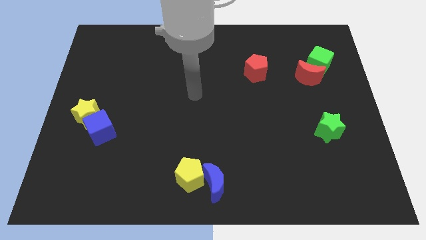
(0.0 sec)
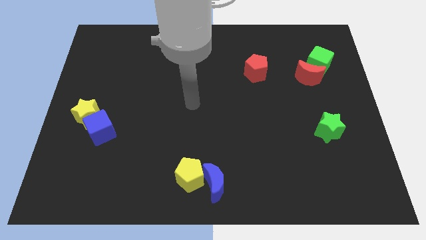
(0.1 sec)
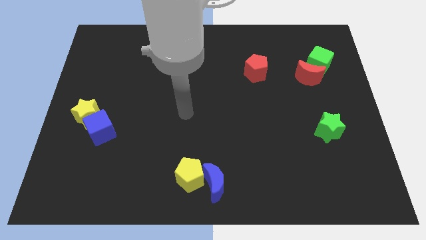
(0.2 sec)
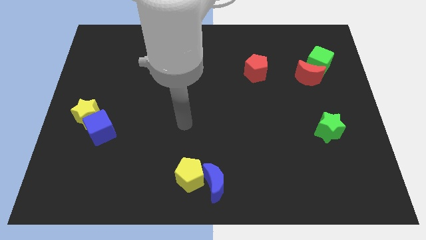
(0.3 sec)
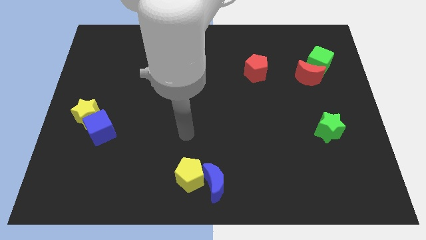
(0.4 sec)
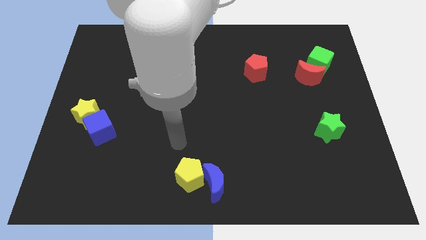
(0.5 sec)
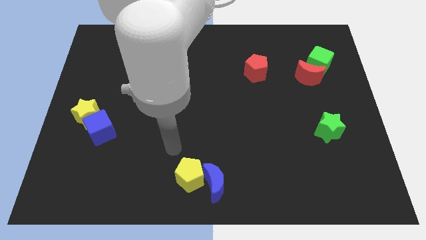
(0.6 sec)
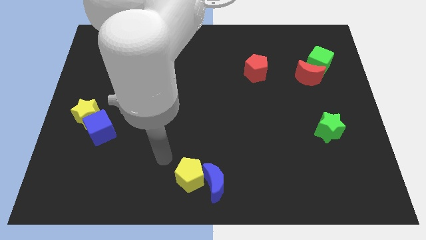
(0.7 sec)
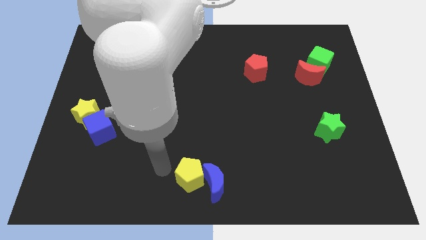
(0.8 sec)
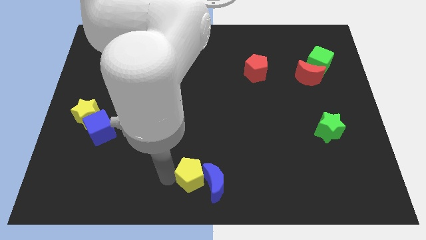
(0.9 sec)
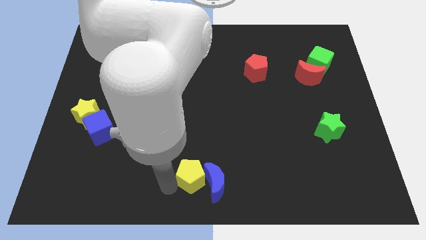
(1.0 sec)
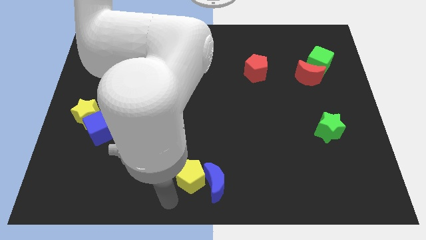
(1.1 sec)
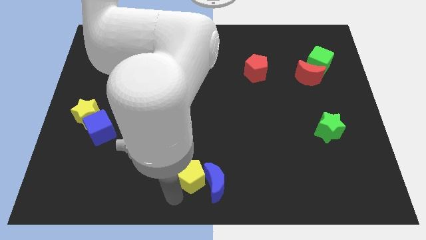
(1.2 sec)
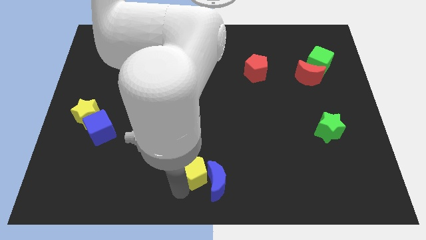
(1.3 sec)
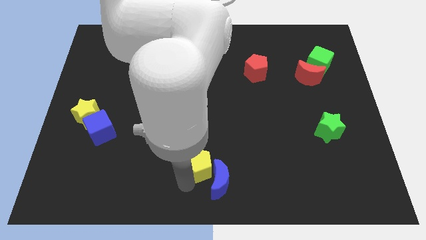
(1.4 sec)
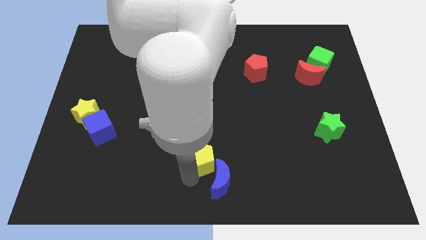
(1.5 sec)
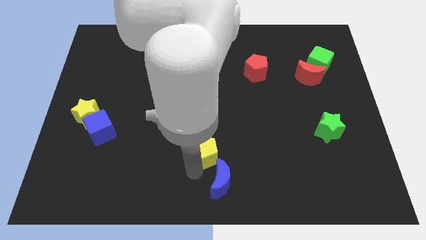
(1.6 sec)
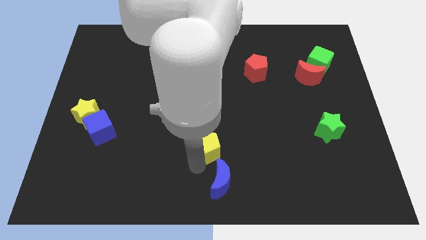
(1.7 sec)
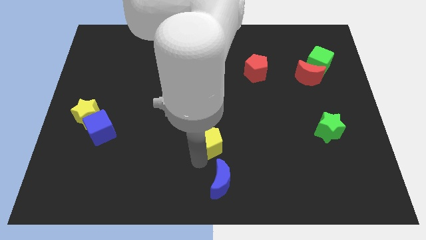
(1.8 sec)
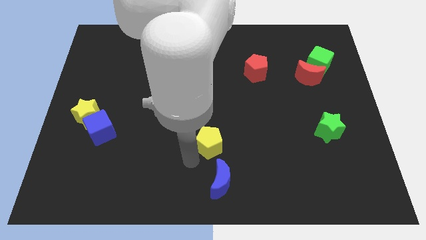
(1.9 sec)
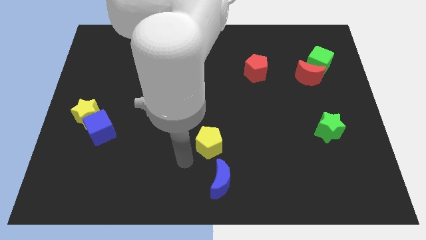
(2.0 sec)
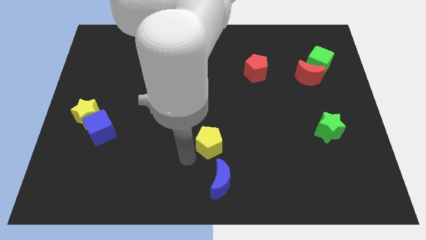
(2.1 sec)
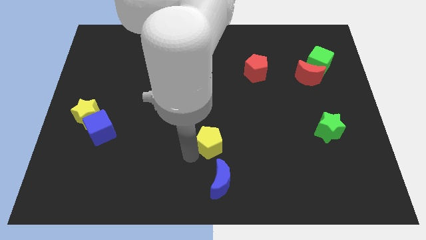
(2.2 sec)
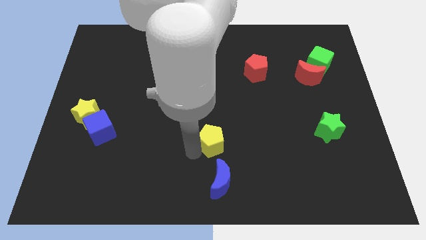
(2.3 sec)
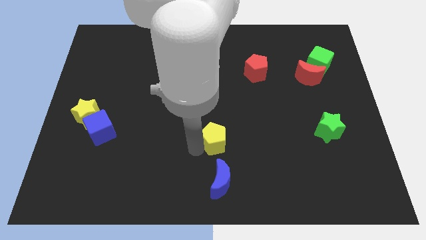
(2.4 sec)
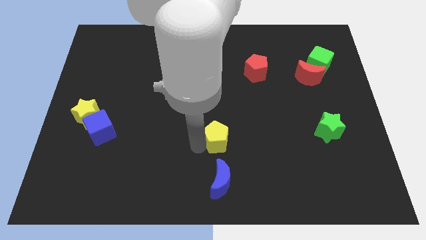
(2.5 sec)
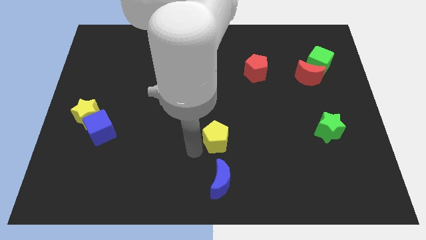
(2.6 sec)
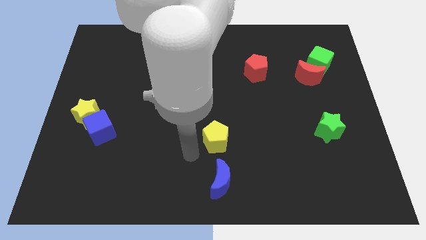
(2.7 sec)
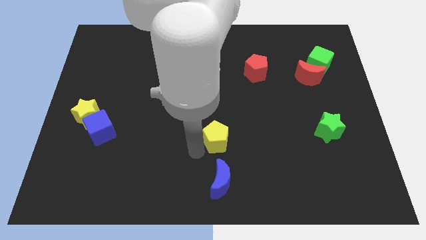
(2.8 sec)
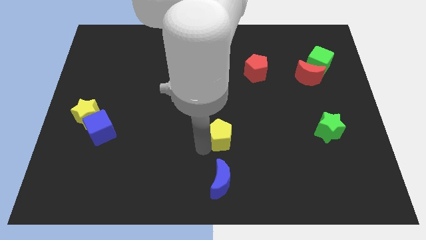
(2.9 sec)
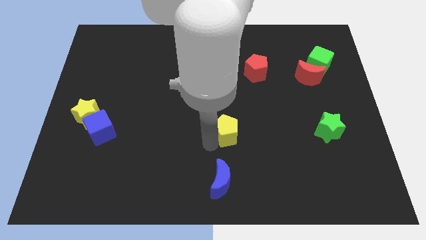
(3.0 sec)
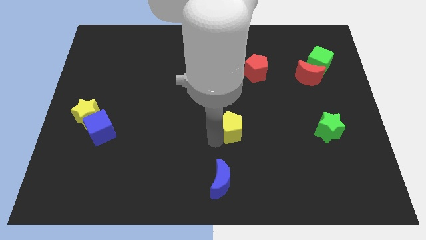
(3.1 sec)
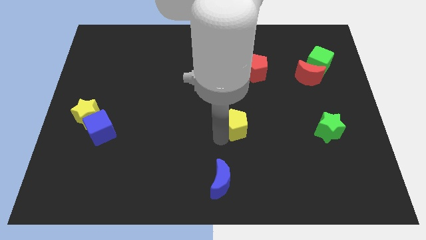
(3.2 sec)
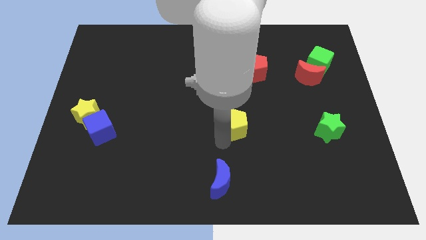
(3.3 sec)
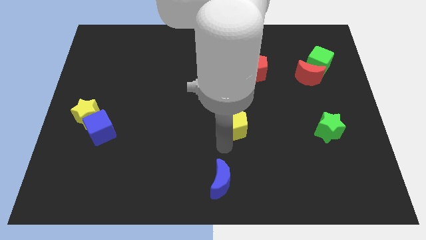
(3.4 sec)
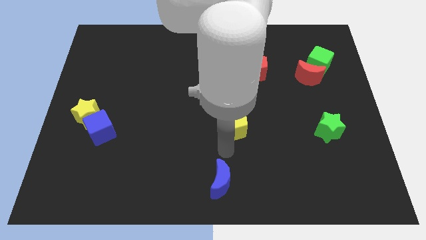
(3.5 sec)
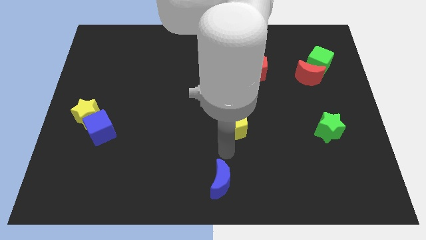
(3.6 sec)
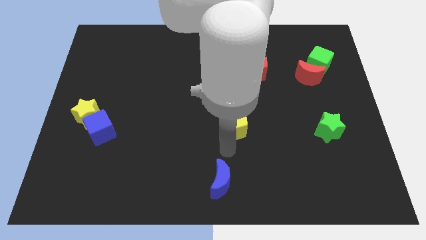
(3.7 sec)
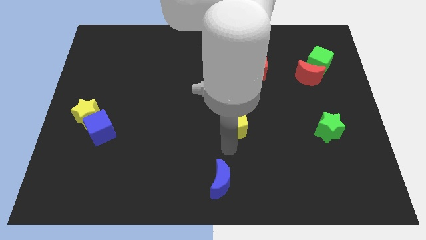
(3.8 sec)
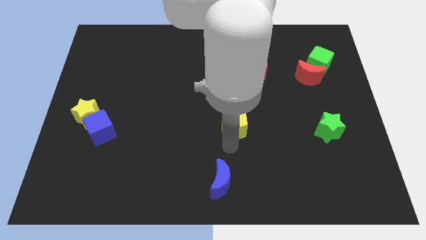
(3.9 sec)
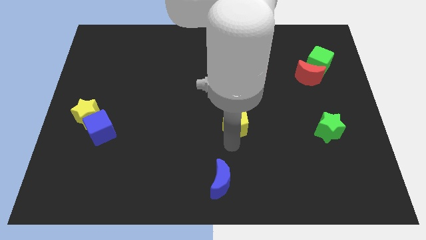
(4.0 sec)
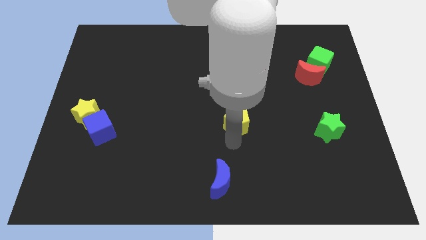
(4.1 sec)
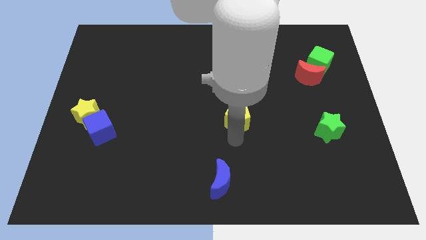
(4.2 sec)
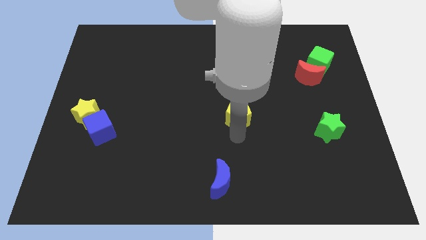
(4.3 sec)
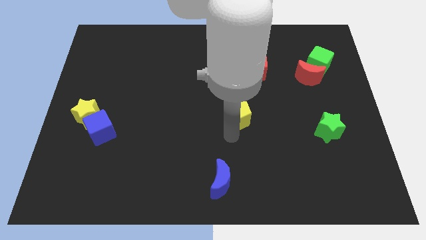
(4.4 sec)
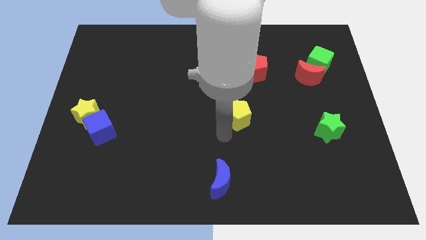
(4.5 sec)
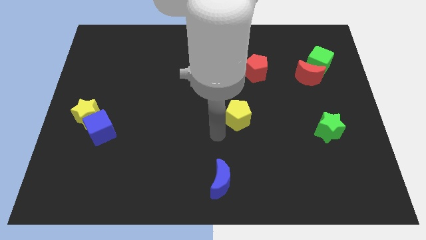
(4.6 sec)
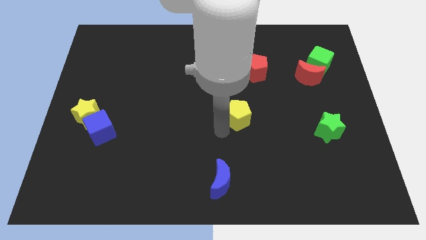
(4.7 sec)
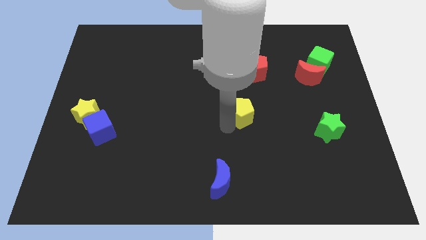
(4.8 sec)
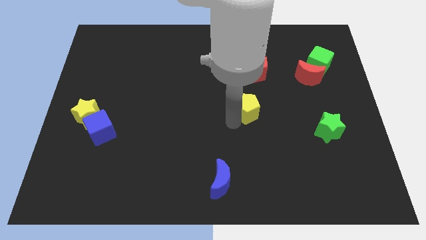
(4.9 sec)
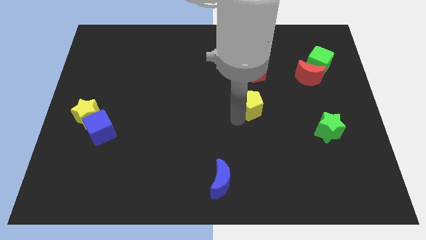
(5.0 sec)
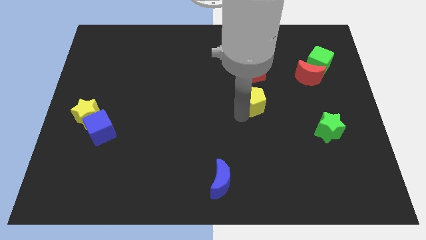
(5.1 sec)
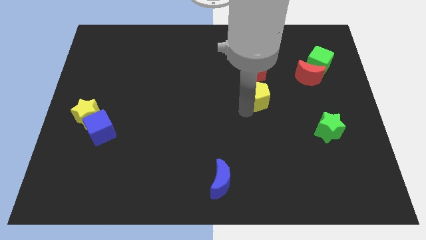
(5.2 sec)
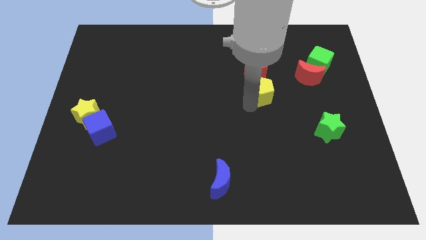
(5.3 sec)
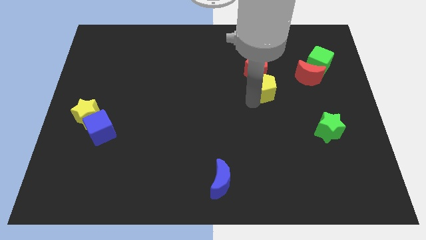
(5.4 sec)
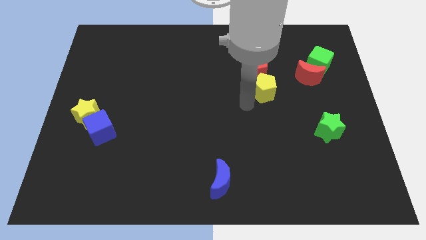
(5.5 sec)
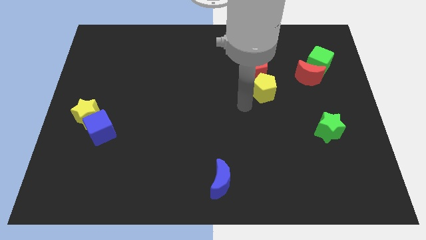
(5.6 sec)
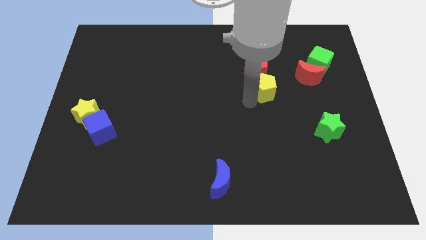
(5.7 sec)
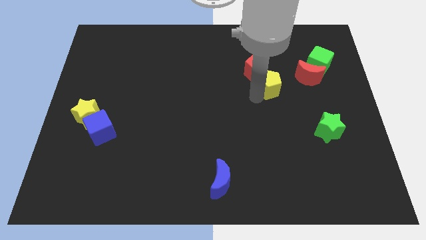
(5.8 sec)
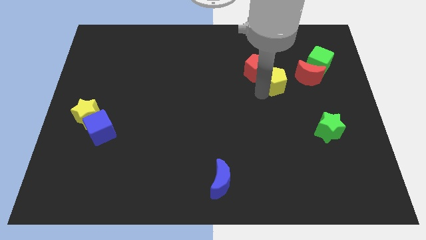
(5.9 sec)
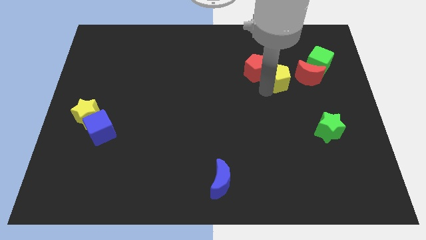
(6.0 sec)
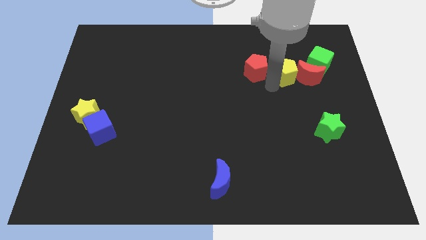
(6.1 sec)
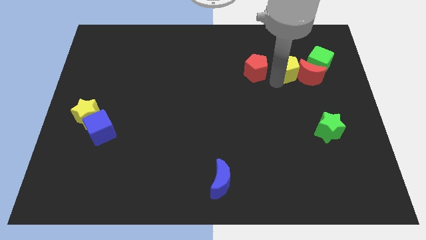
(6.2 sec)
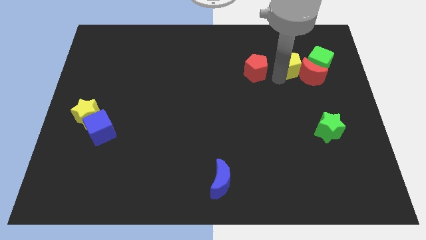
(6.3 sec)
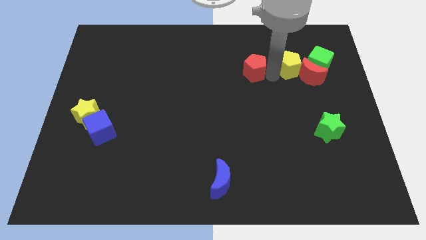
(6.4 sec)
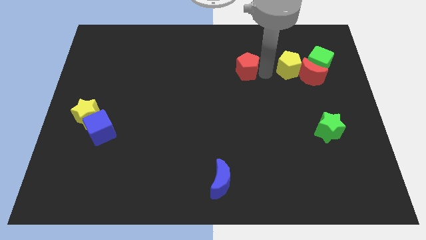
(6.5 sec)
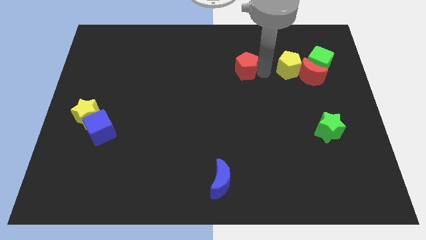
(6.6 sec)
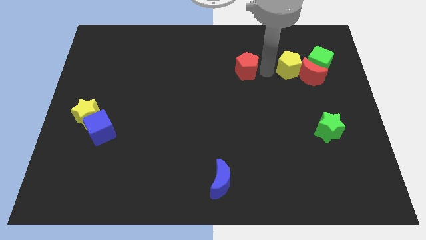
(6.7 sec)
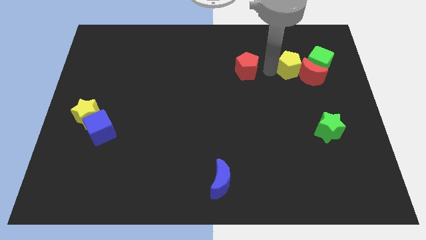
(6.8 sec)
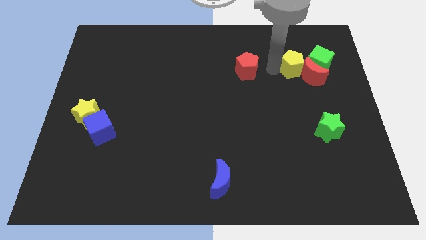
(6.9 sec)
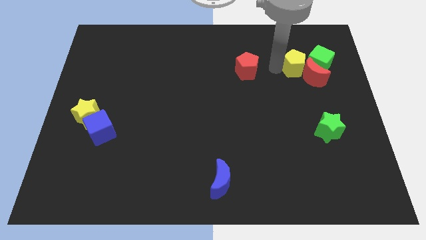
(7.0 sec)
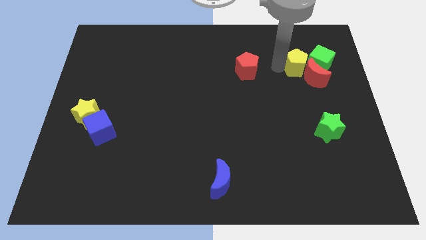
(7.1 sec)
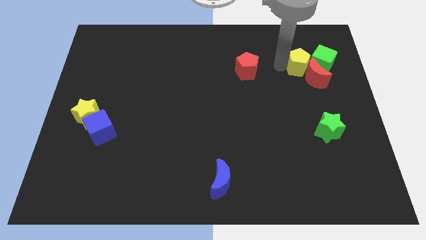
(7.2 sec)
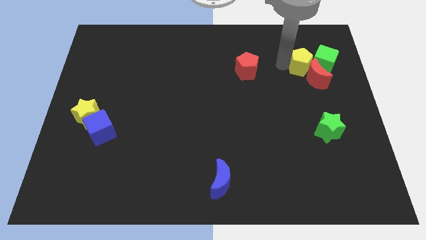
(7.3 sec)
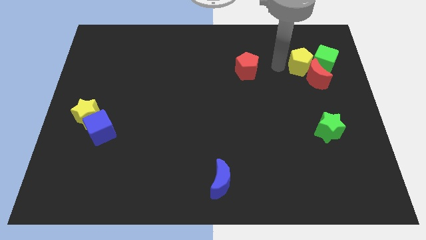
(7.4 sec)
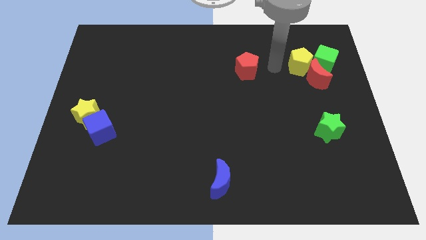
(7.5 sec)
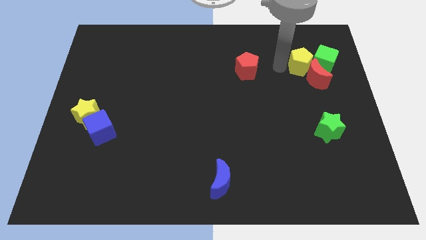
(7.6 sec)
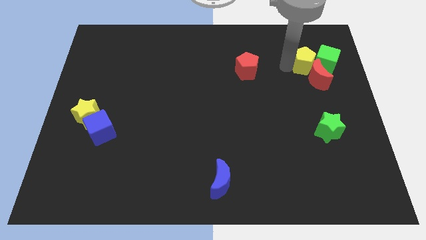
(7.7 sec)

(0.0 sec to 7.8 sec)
slide the yellow pentagon towards the green cube

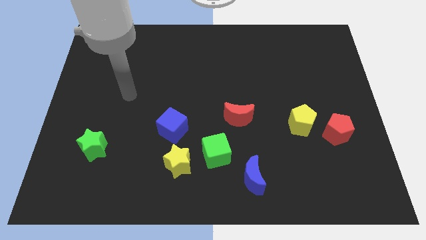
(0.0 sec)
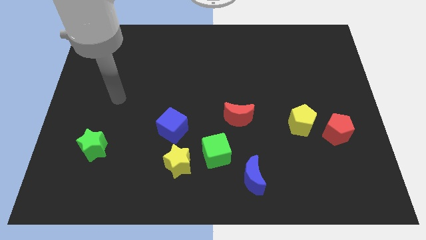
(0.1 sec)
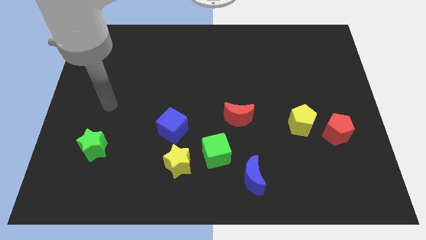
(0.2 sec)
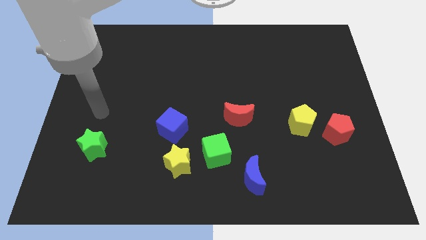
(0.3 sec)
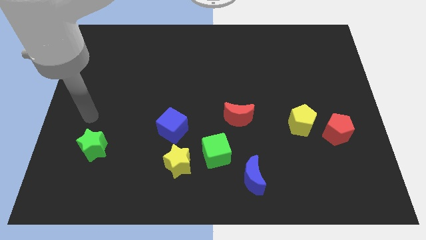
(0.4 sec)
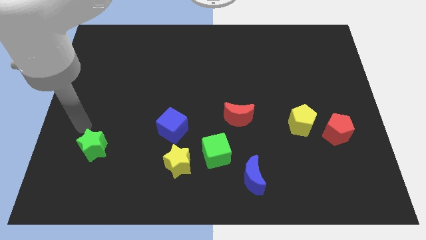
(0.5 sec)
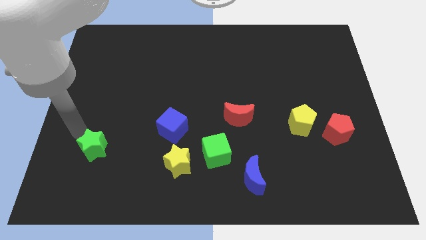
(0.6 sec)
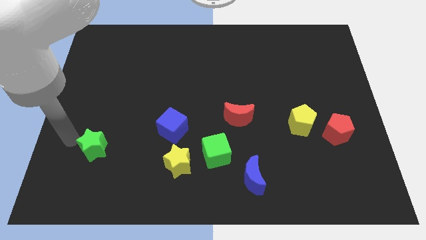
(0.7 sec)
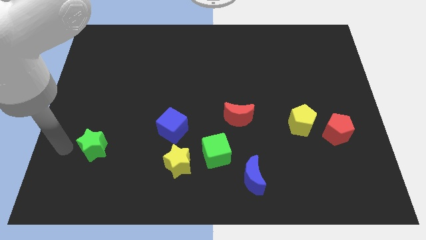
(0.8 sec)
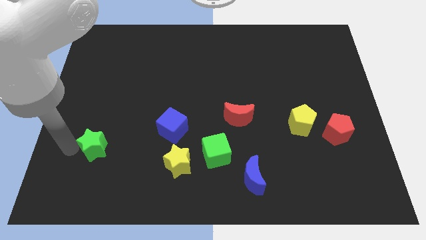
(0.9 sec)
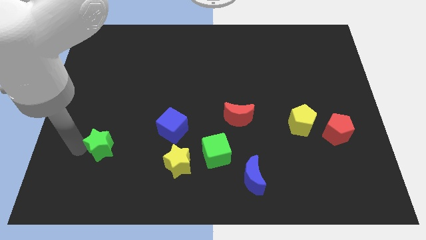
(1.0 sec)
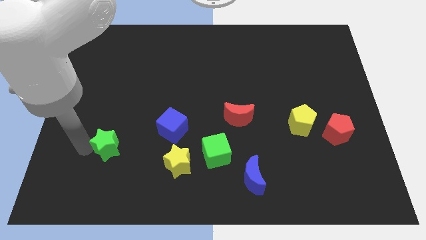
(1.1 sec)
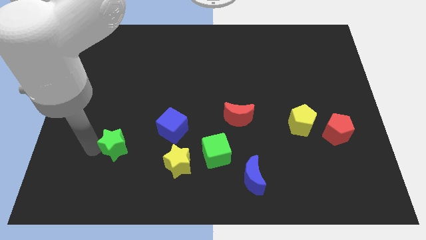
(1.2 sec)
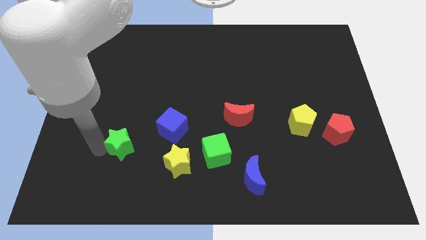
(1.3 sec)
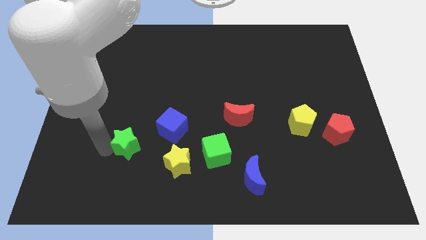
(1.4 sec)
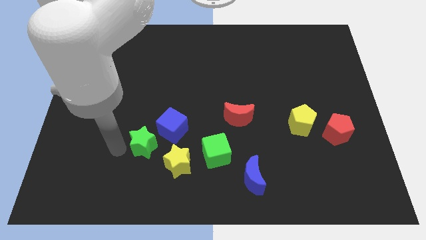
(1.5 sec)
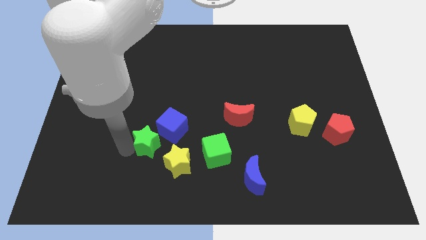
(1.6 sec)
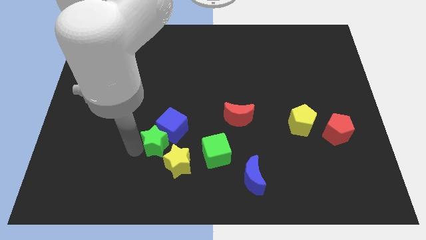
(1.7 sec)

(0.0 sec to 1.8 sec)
put the green star to the blue cube
